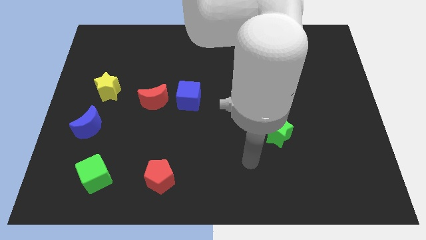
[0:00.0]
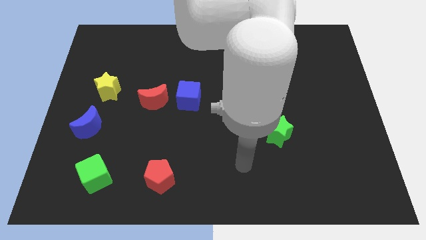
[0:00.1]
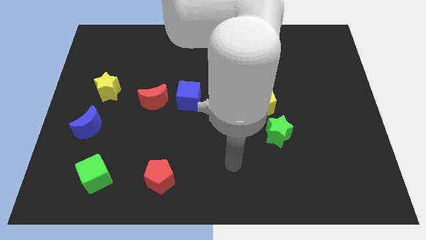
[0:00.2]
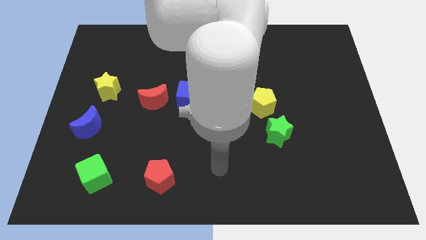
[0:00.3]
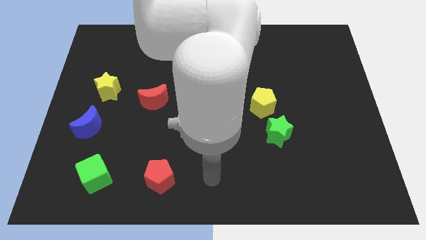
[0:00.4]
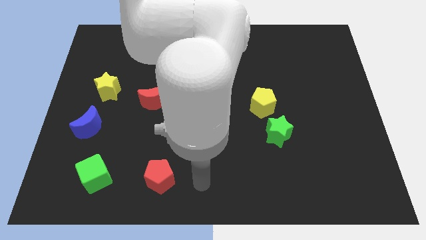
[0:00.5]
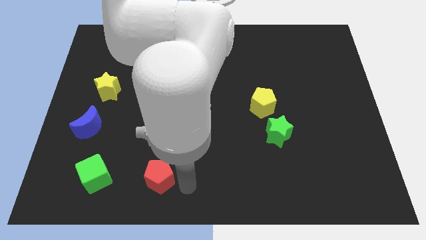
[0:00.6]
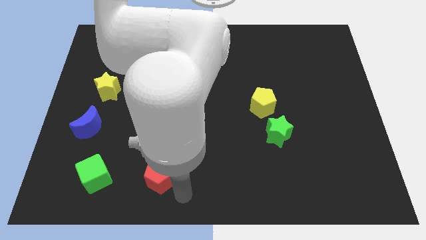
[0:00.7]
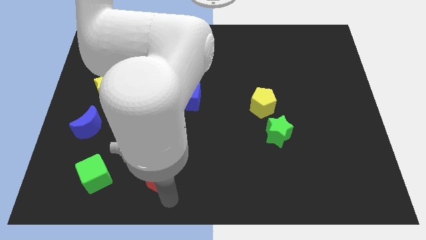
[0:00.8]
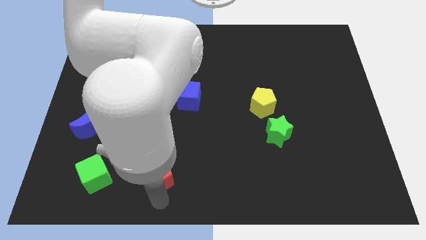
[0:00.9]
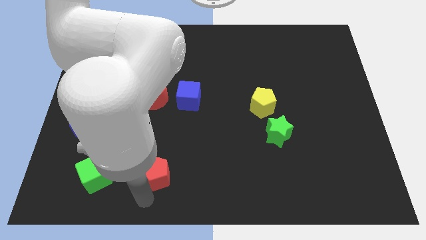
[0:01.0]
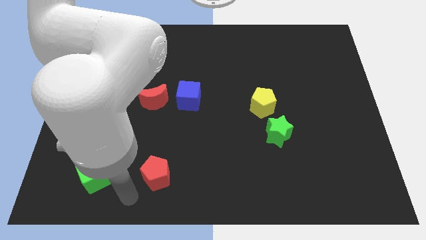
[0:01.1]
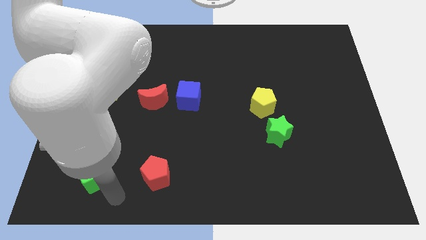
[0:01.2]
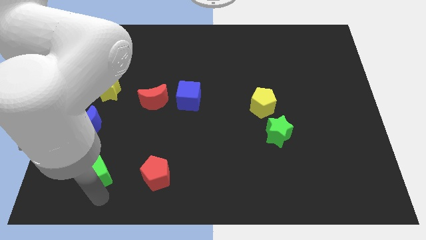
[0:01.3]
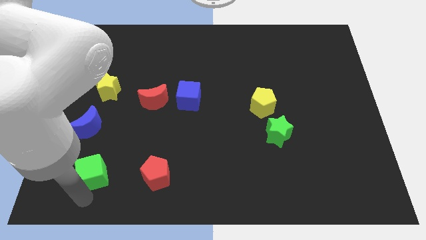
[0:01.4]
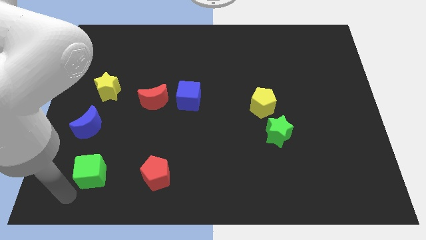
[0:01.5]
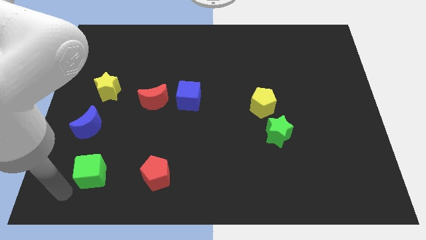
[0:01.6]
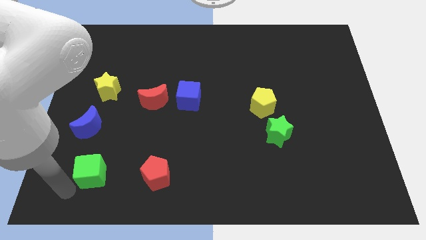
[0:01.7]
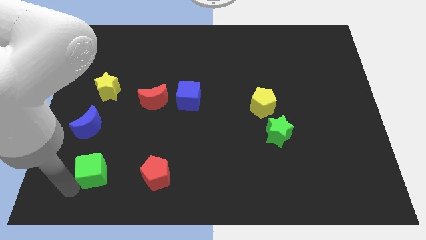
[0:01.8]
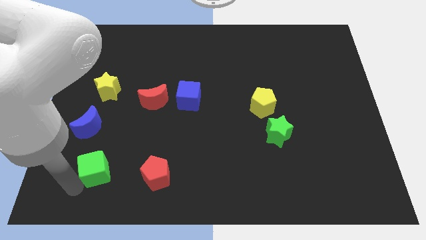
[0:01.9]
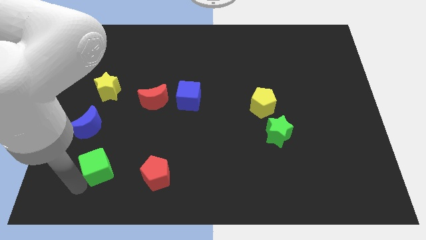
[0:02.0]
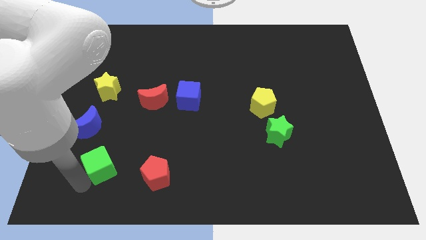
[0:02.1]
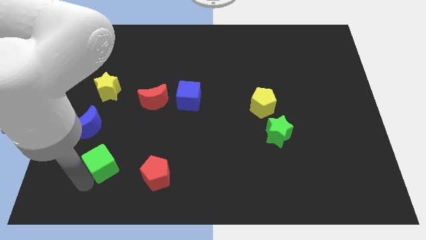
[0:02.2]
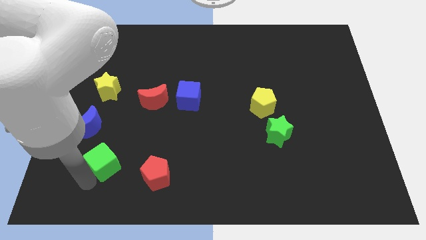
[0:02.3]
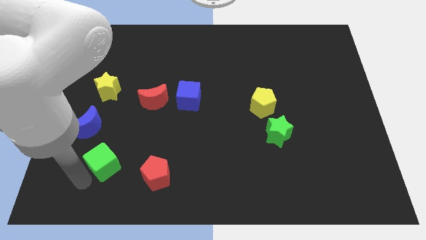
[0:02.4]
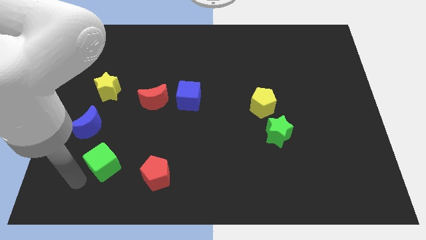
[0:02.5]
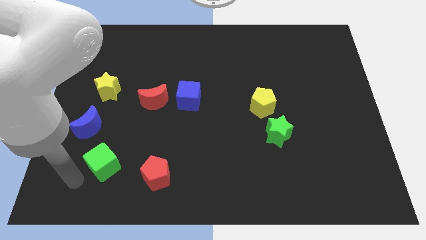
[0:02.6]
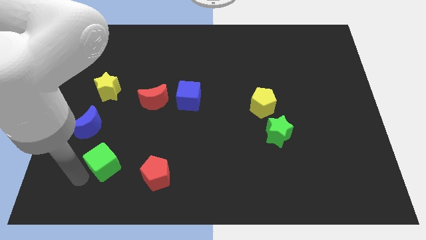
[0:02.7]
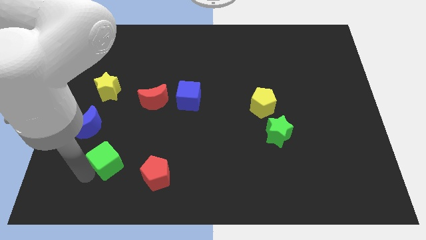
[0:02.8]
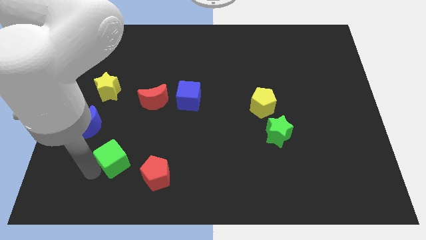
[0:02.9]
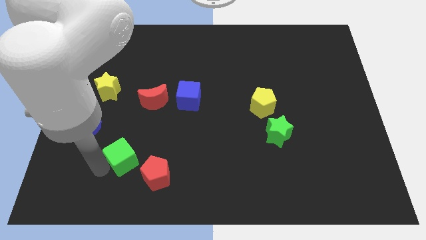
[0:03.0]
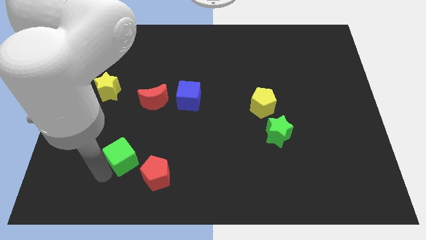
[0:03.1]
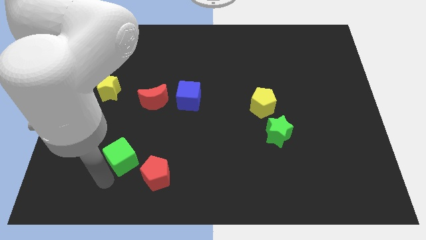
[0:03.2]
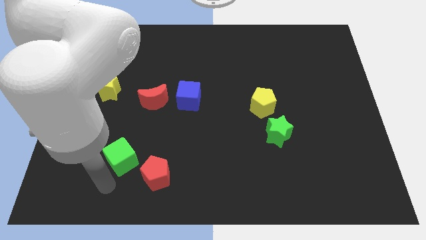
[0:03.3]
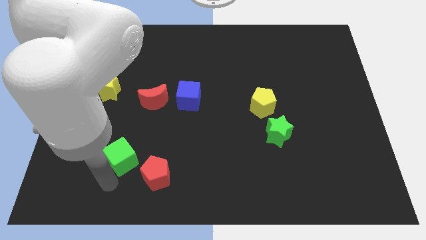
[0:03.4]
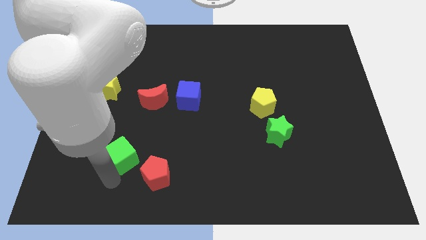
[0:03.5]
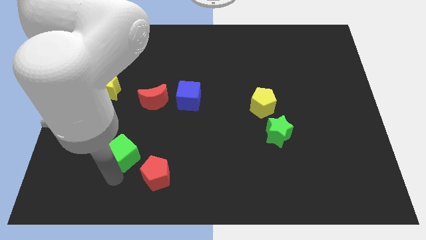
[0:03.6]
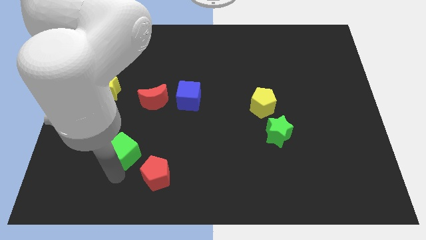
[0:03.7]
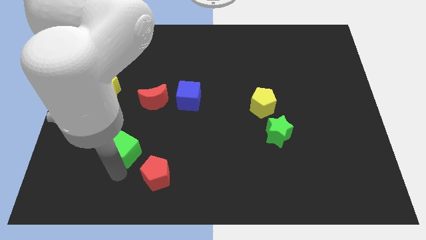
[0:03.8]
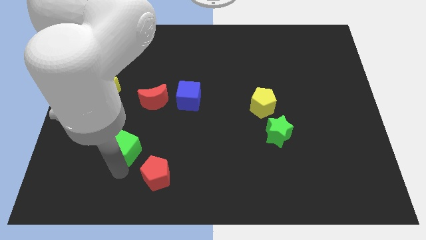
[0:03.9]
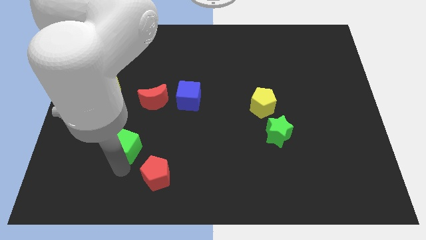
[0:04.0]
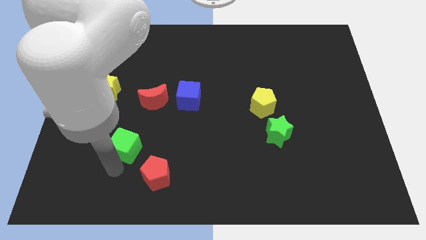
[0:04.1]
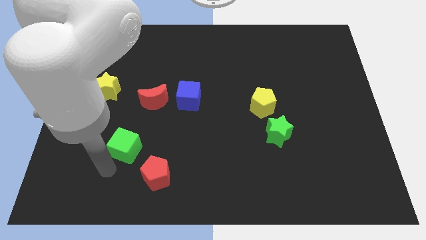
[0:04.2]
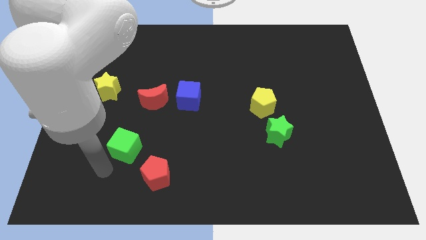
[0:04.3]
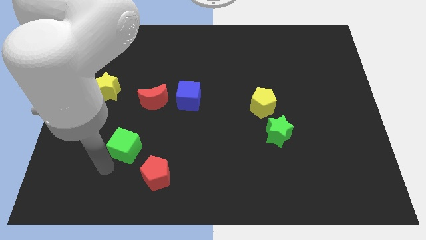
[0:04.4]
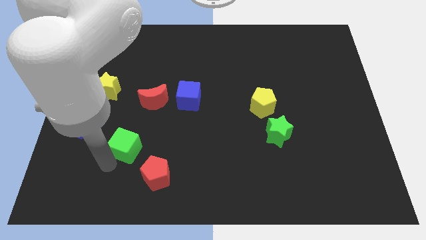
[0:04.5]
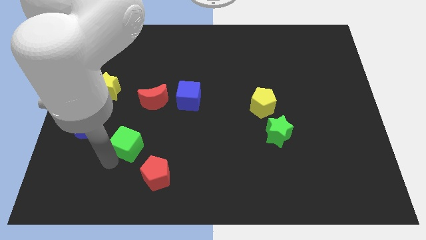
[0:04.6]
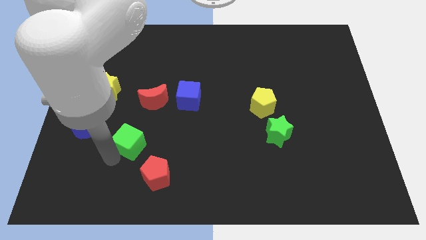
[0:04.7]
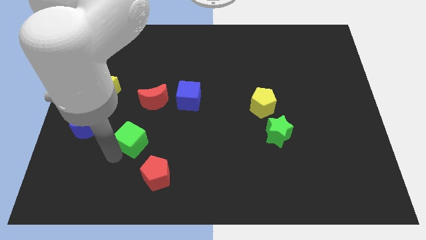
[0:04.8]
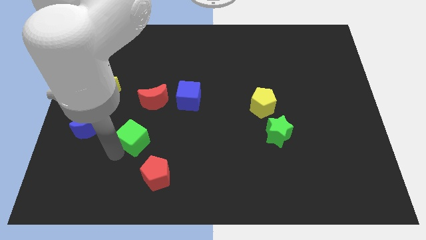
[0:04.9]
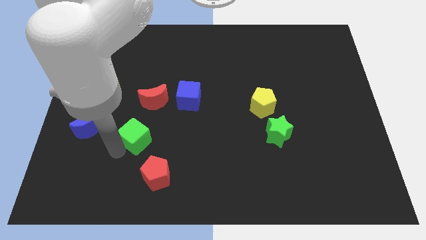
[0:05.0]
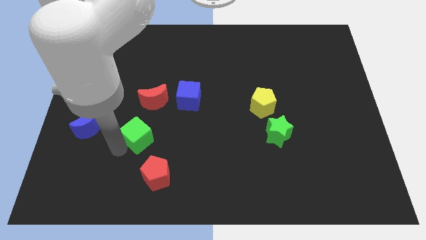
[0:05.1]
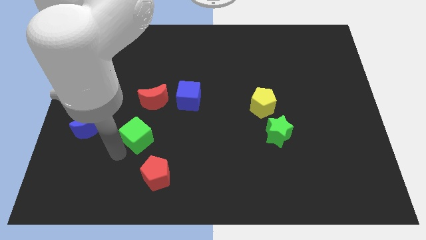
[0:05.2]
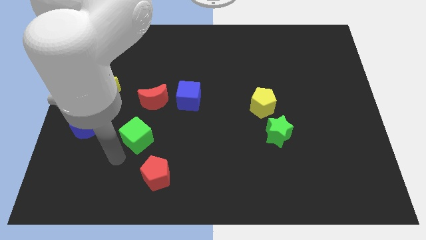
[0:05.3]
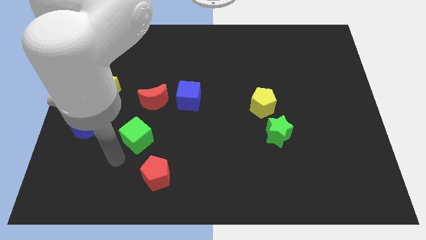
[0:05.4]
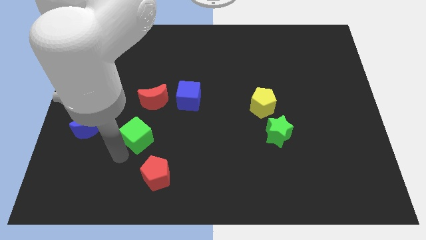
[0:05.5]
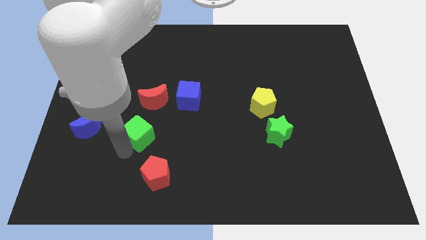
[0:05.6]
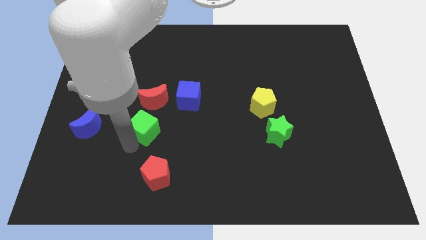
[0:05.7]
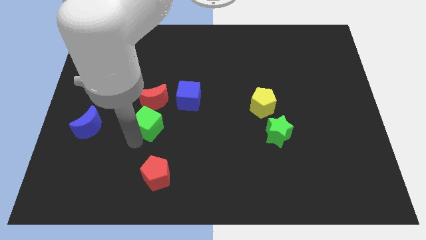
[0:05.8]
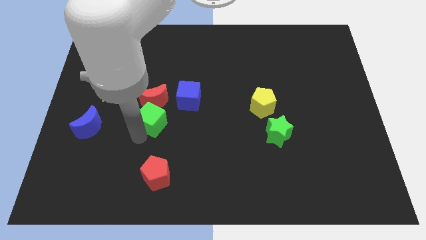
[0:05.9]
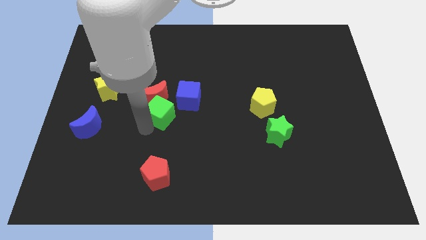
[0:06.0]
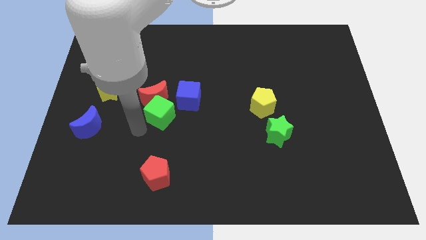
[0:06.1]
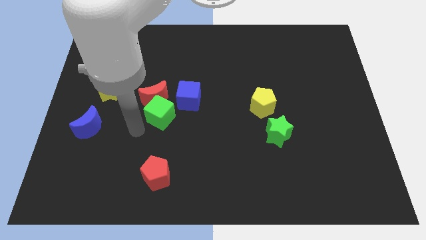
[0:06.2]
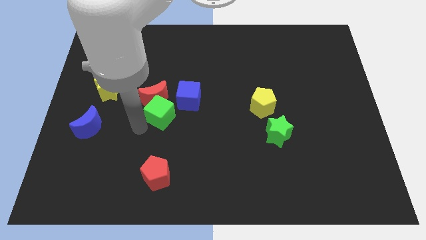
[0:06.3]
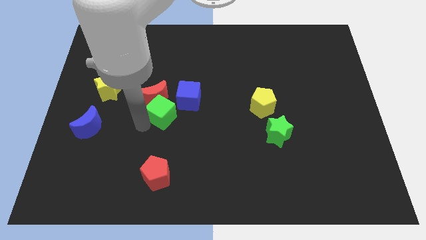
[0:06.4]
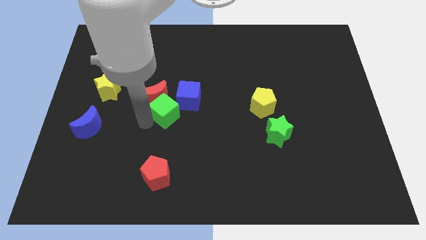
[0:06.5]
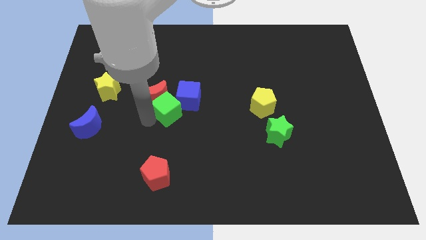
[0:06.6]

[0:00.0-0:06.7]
push the green cube to the blue cube
